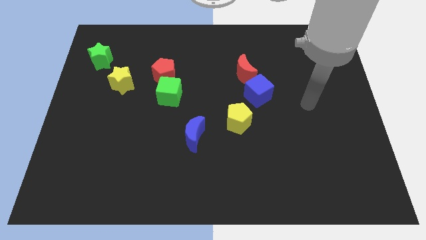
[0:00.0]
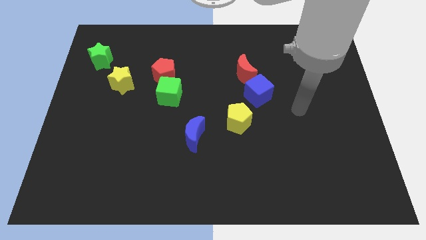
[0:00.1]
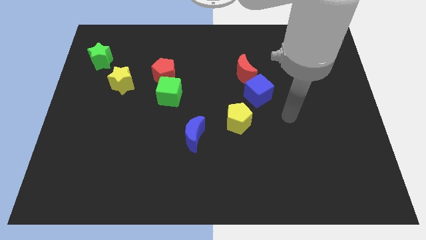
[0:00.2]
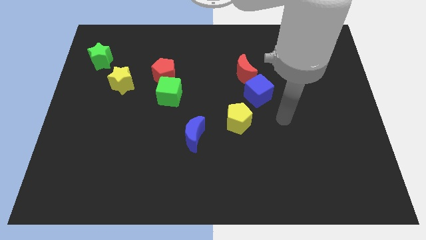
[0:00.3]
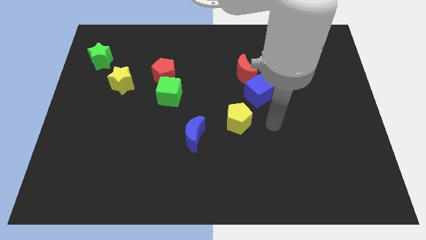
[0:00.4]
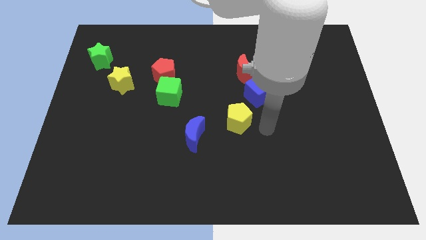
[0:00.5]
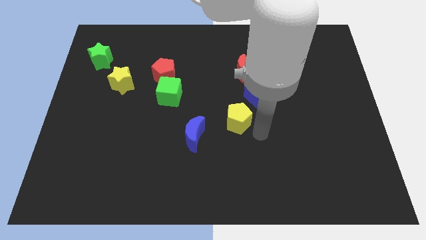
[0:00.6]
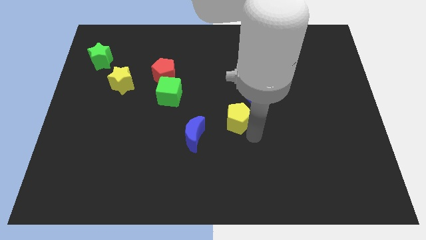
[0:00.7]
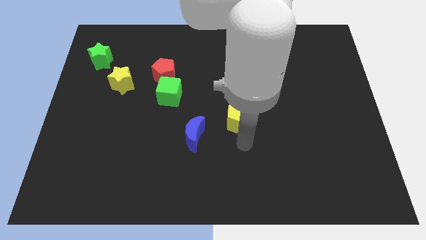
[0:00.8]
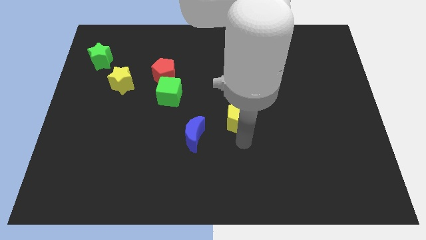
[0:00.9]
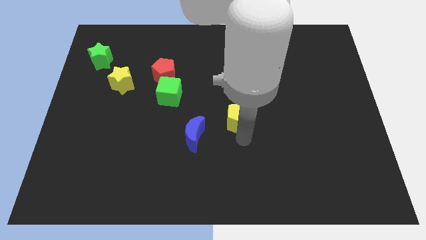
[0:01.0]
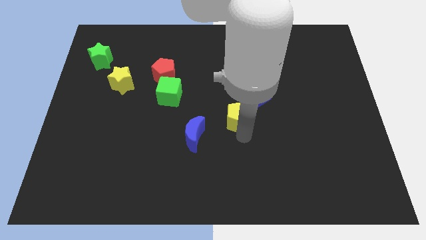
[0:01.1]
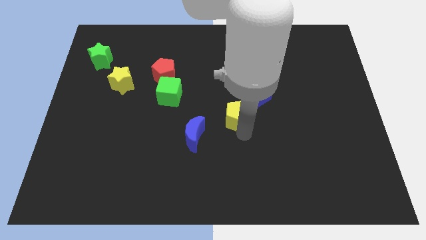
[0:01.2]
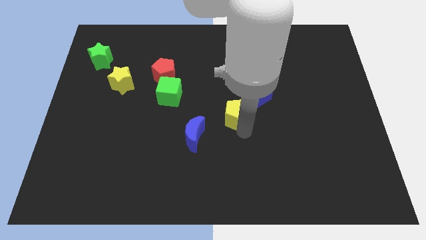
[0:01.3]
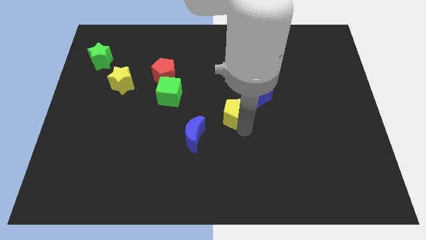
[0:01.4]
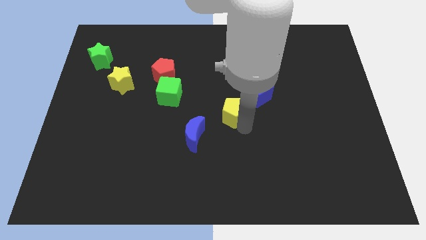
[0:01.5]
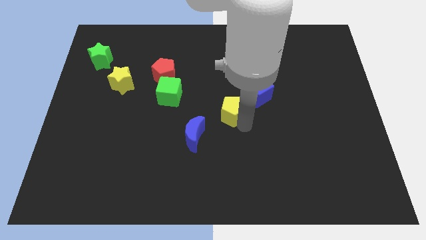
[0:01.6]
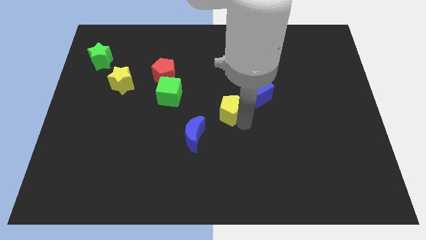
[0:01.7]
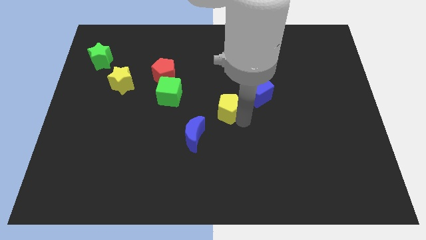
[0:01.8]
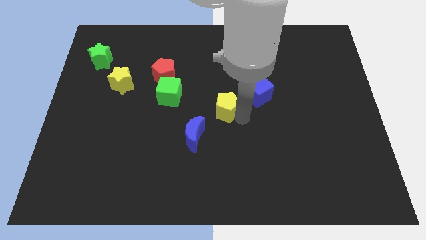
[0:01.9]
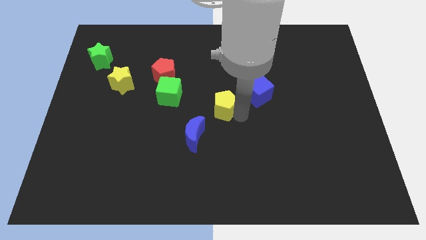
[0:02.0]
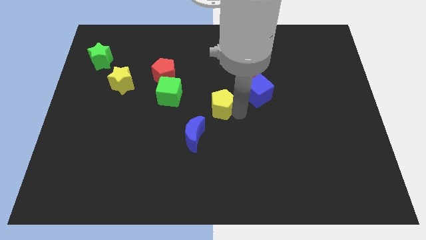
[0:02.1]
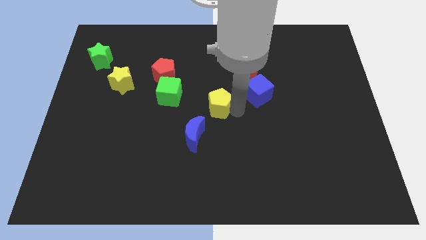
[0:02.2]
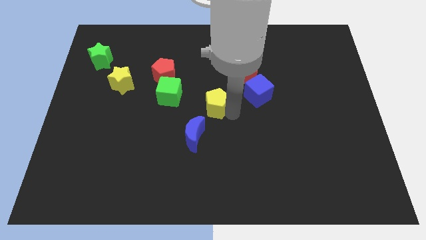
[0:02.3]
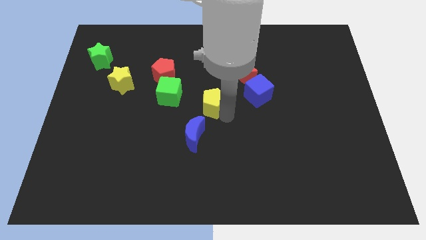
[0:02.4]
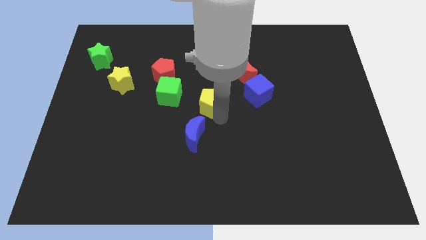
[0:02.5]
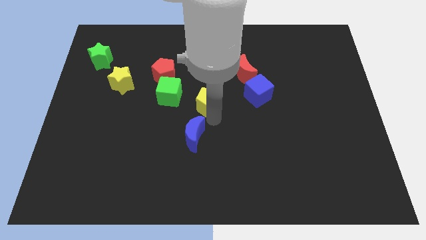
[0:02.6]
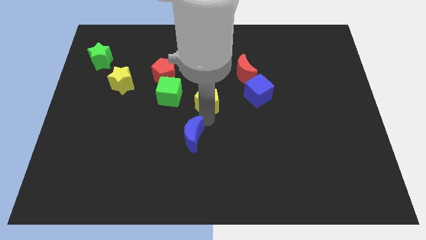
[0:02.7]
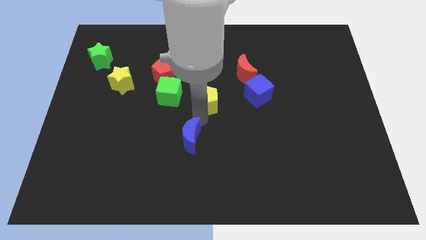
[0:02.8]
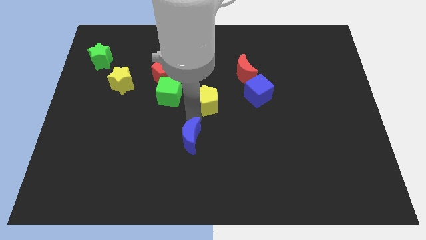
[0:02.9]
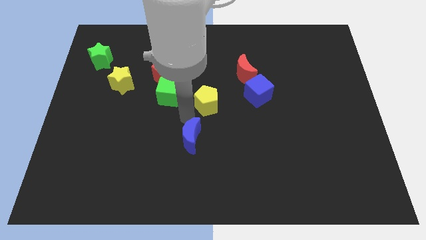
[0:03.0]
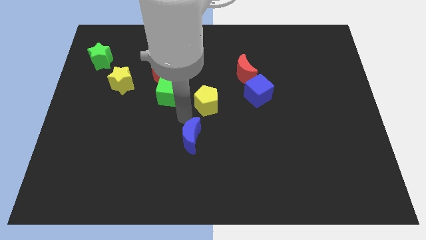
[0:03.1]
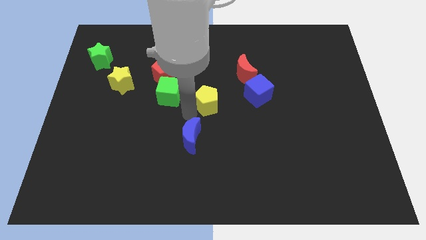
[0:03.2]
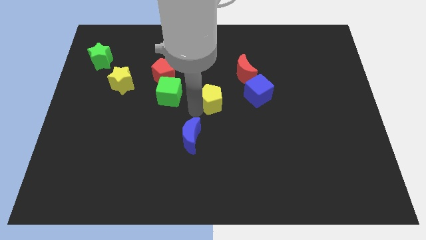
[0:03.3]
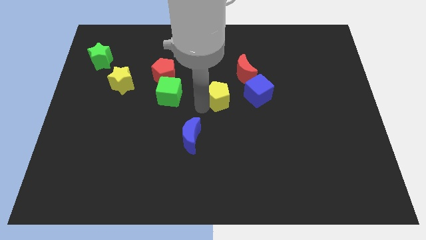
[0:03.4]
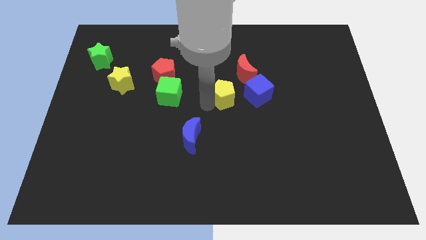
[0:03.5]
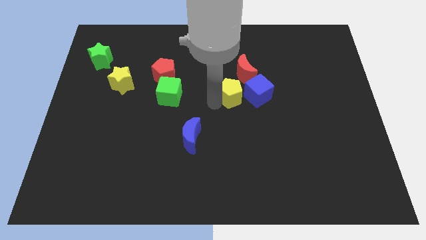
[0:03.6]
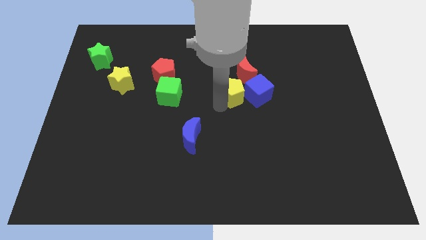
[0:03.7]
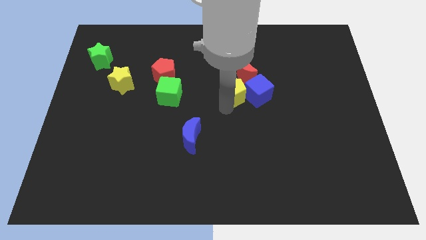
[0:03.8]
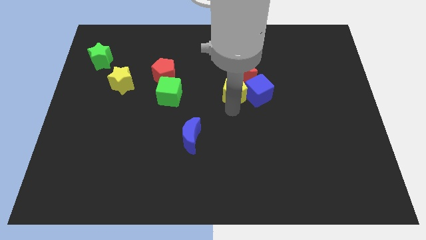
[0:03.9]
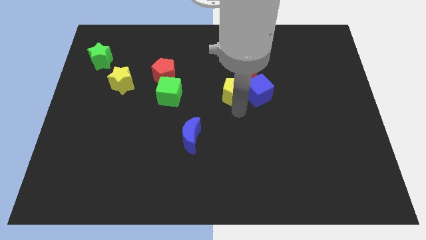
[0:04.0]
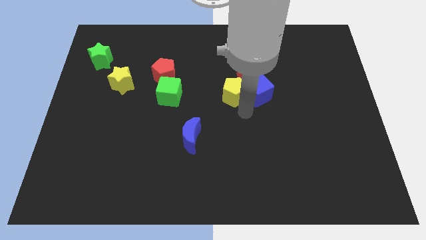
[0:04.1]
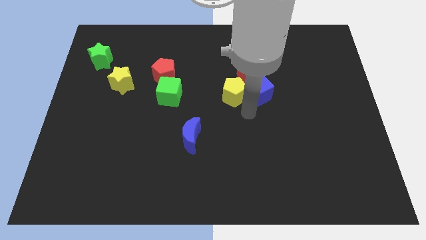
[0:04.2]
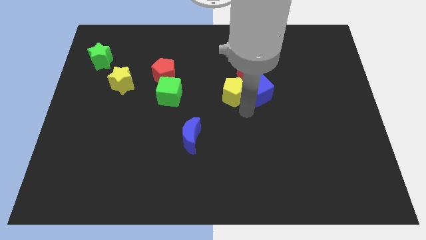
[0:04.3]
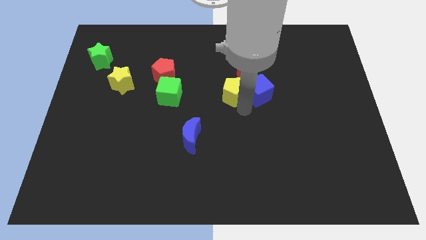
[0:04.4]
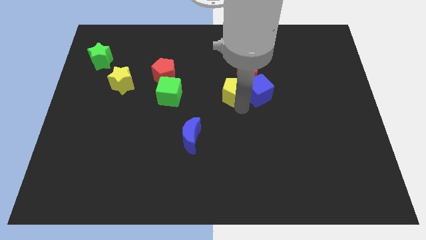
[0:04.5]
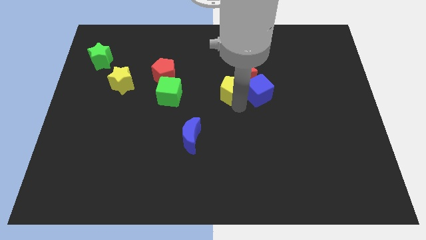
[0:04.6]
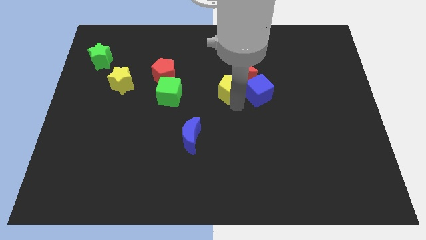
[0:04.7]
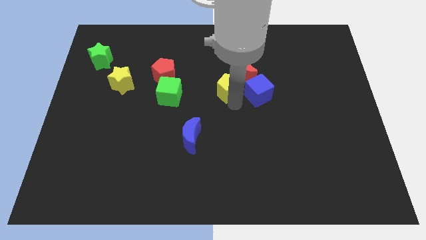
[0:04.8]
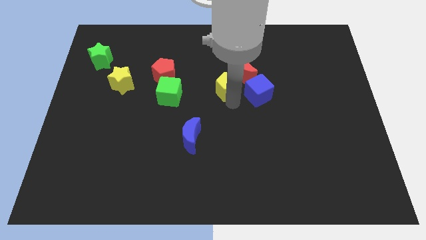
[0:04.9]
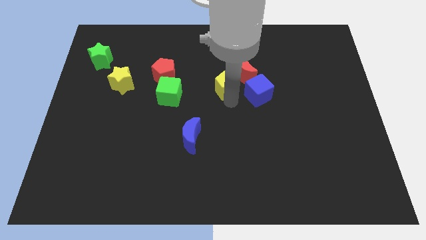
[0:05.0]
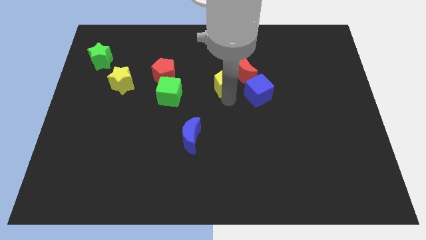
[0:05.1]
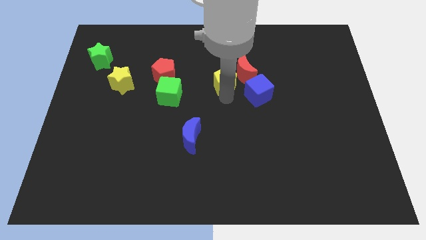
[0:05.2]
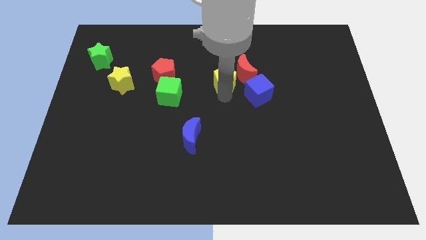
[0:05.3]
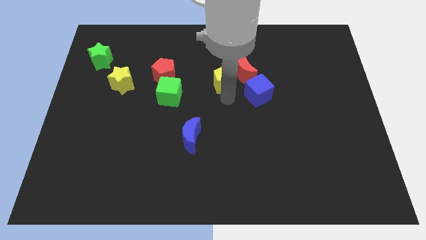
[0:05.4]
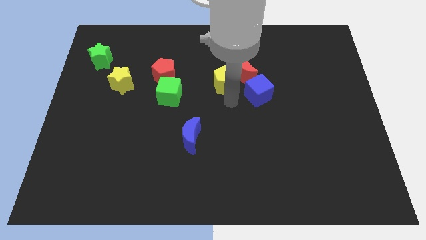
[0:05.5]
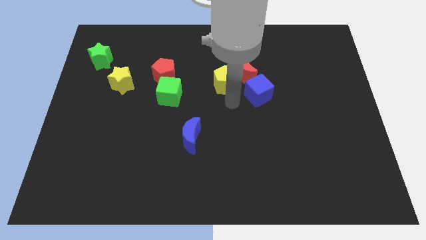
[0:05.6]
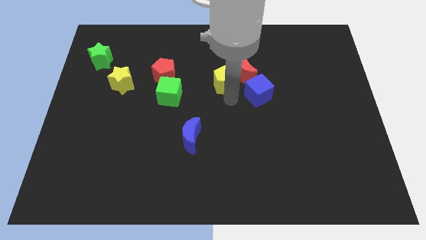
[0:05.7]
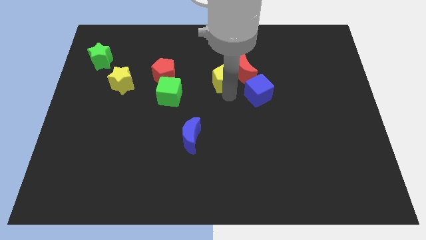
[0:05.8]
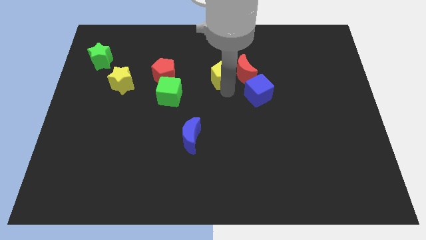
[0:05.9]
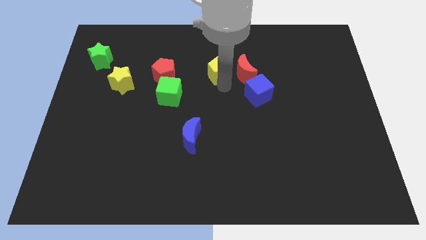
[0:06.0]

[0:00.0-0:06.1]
push the yellow pentagon to the top left of the red moon
